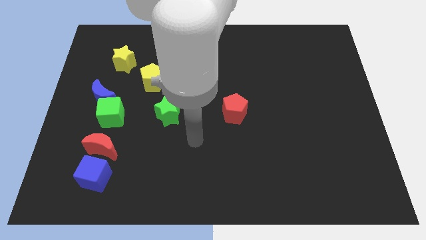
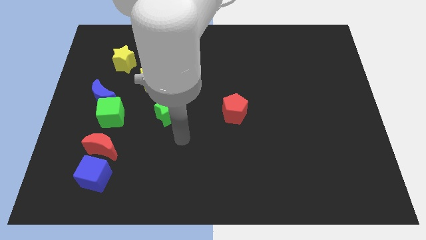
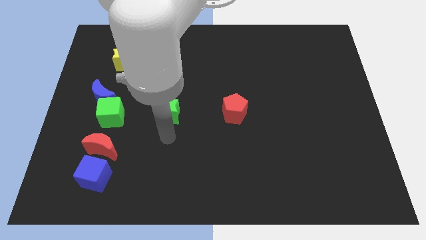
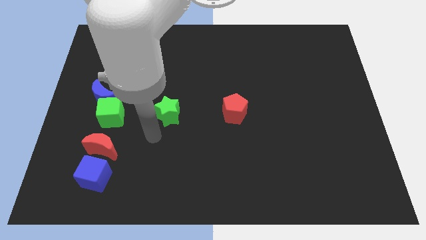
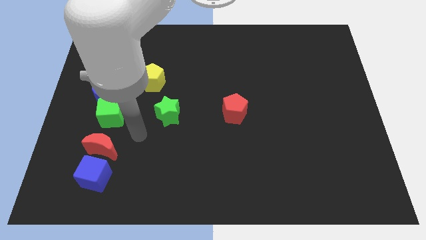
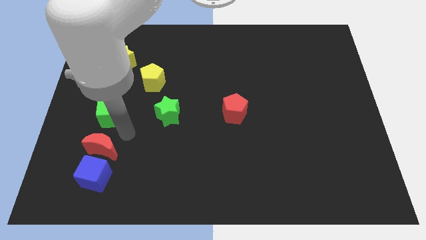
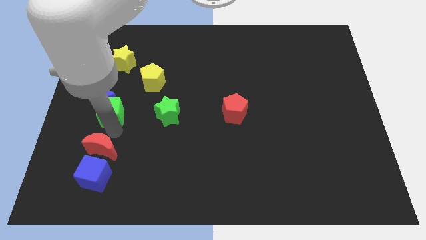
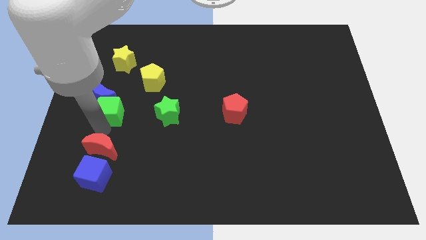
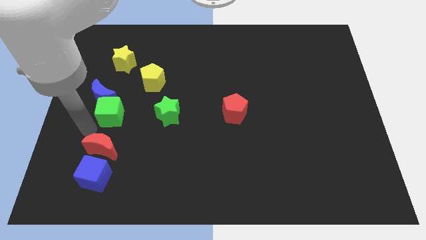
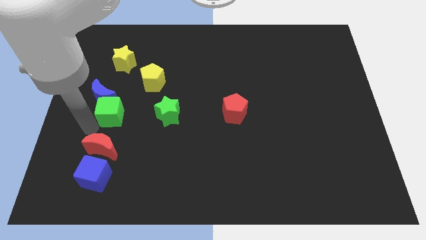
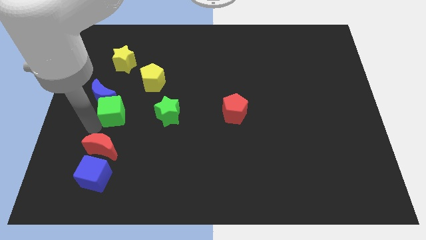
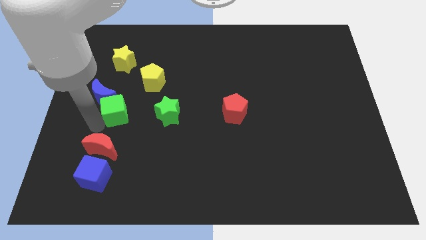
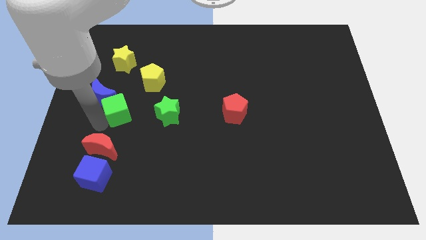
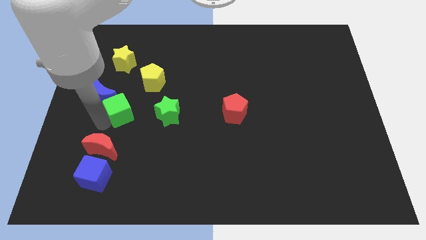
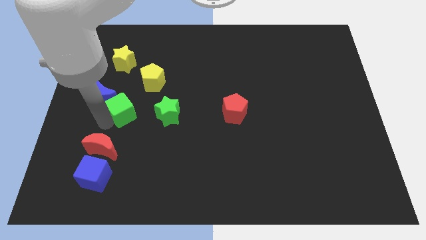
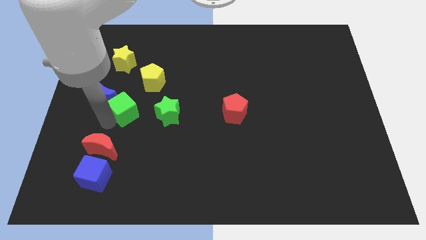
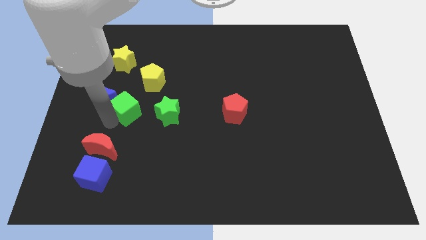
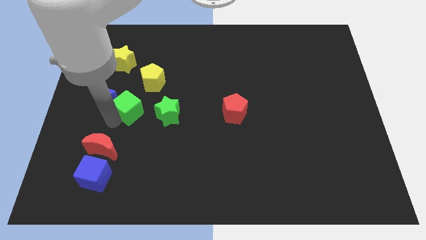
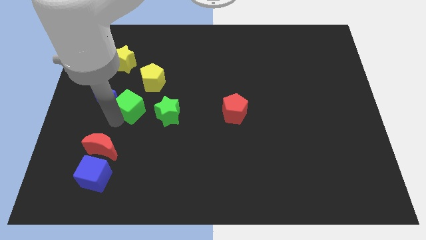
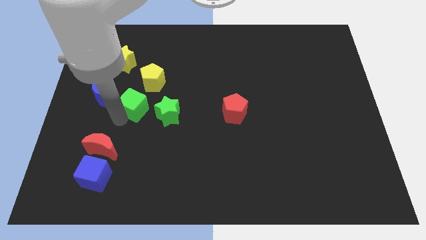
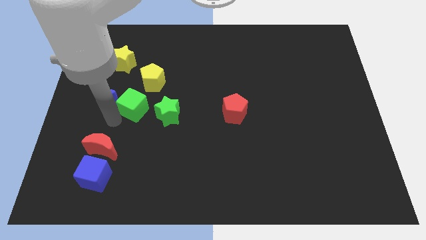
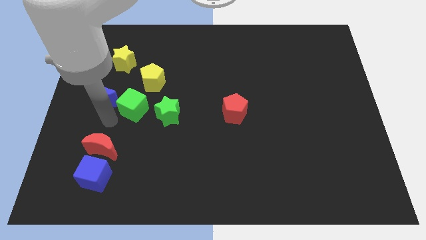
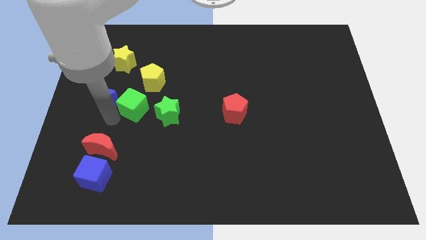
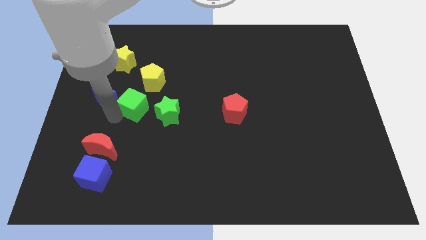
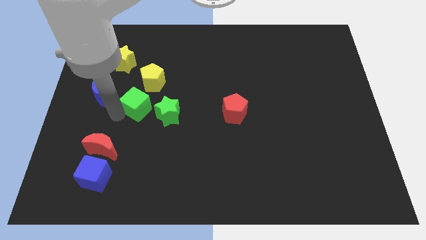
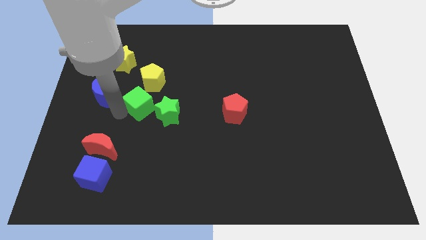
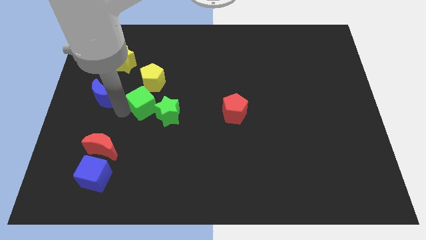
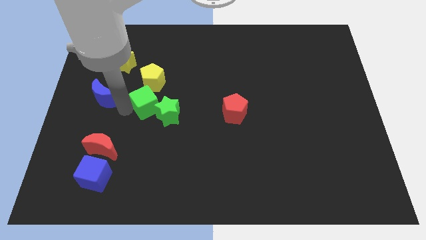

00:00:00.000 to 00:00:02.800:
push the green cube slightly up and right

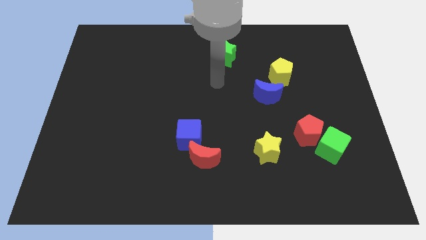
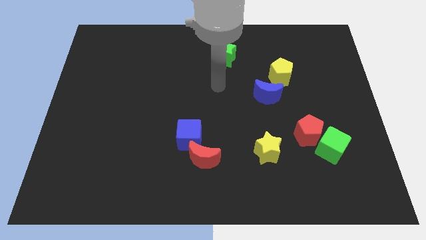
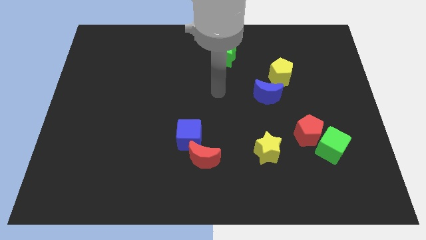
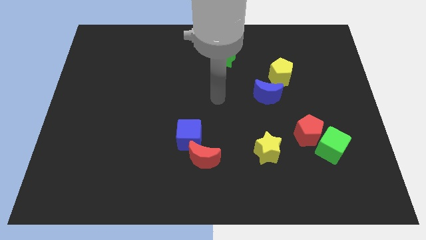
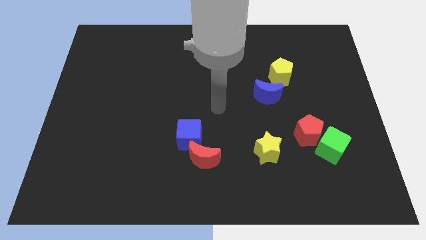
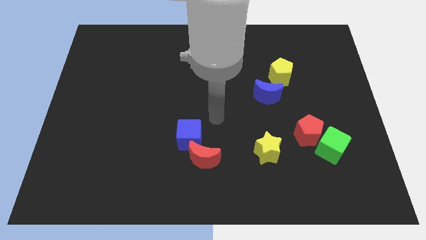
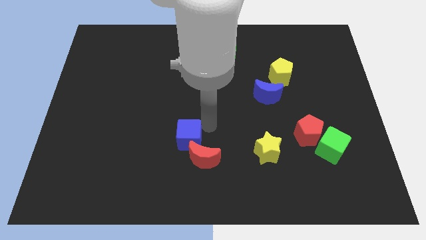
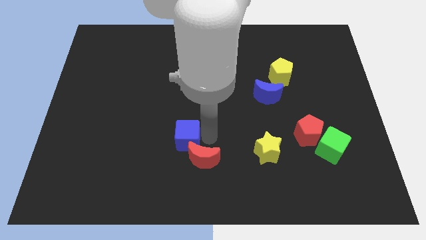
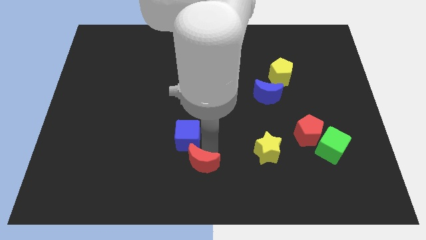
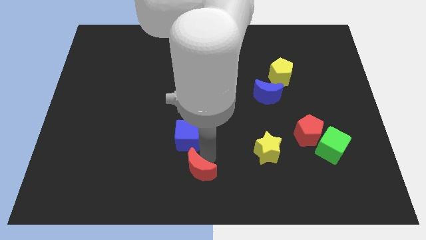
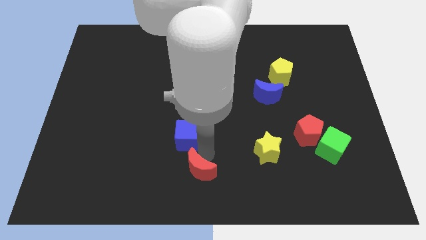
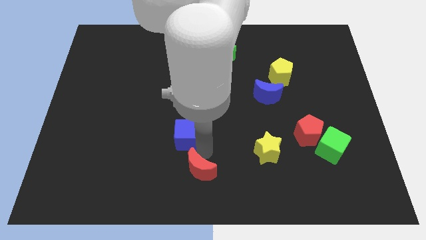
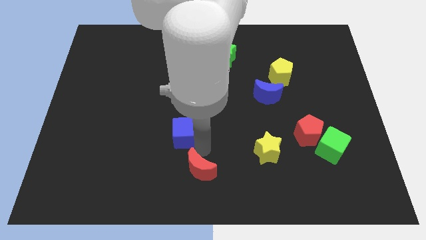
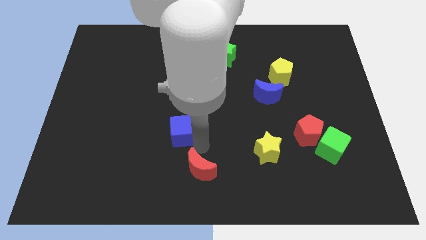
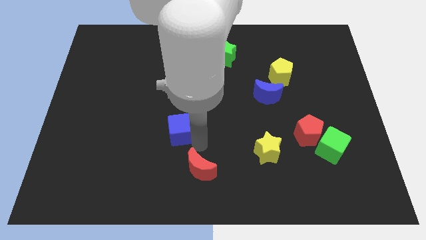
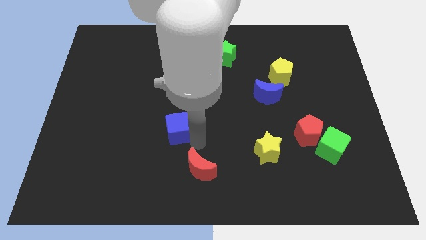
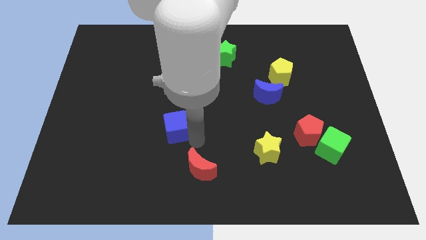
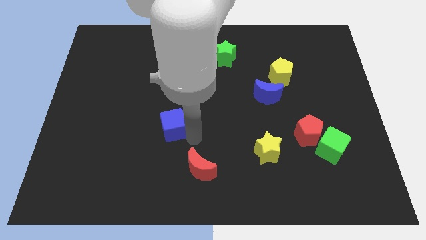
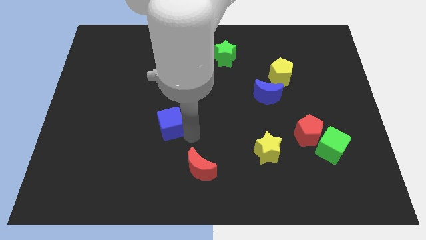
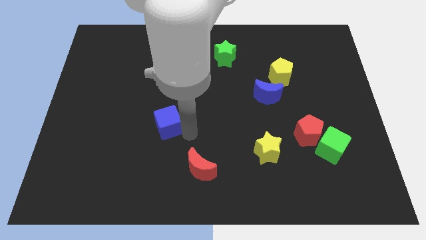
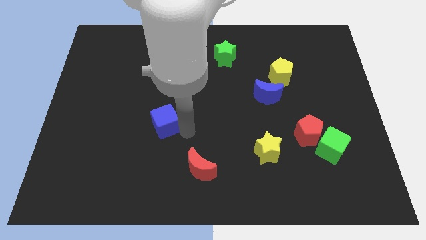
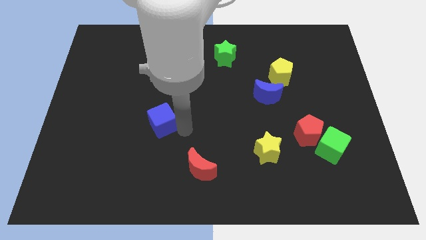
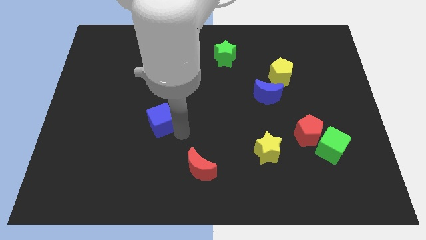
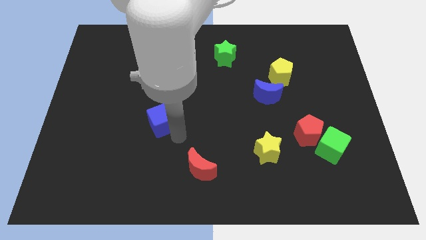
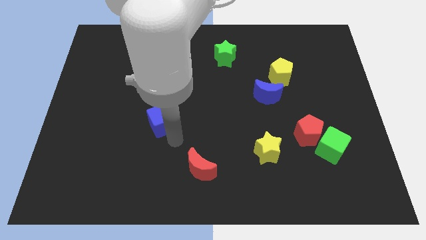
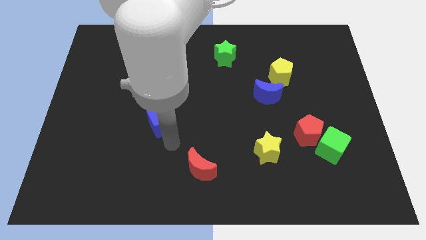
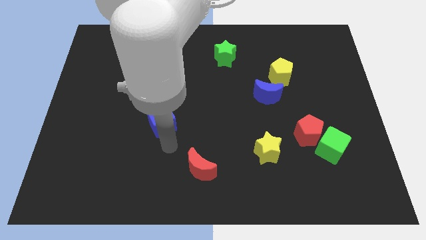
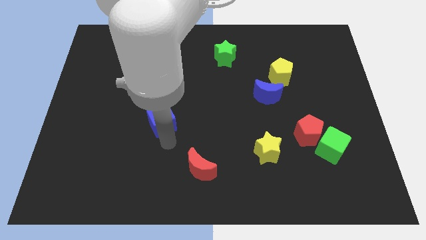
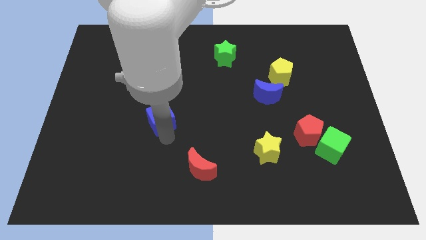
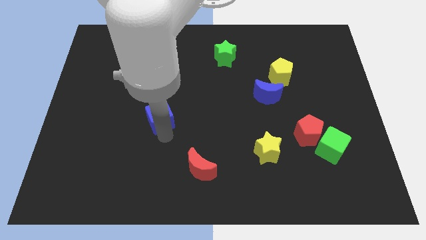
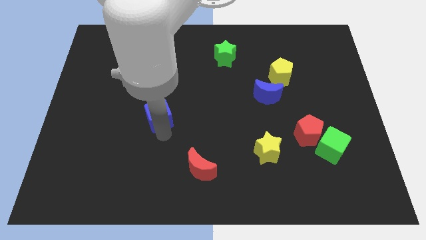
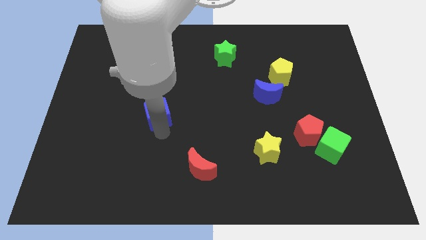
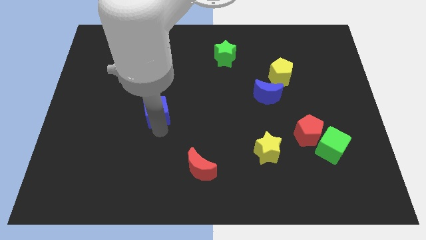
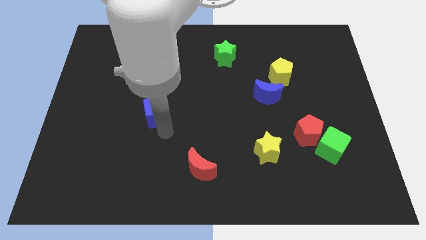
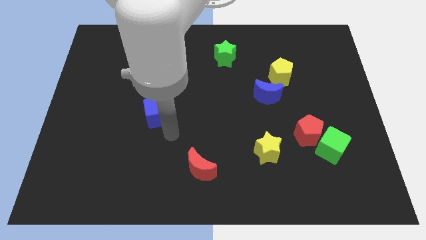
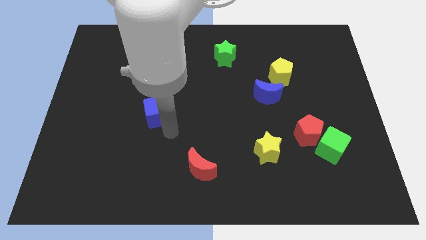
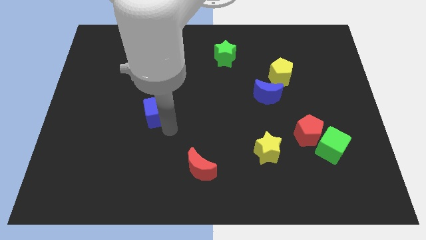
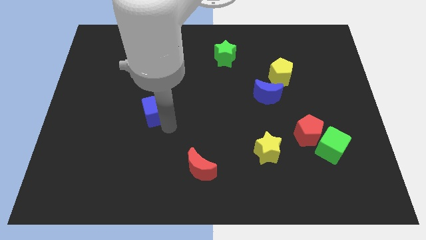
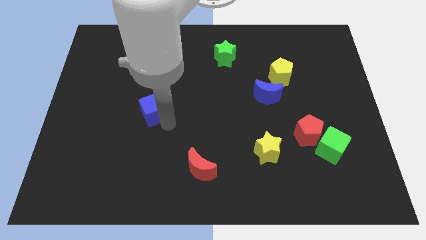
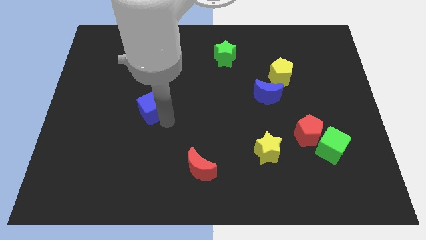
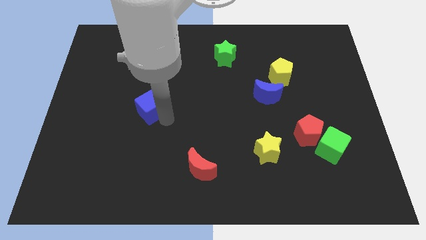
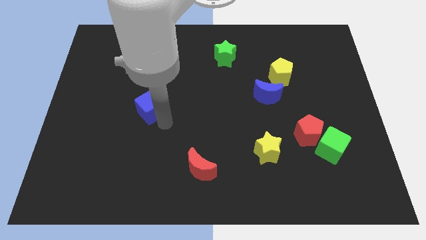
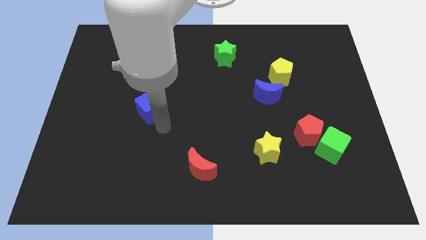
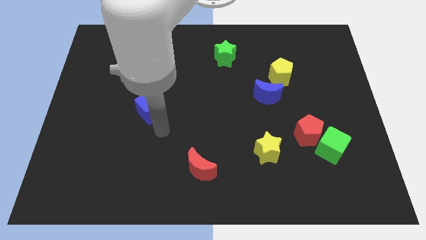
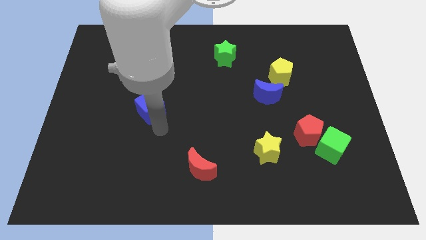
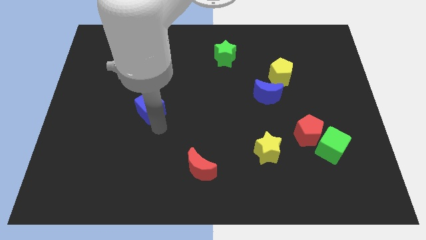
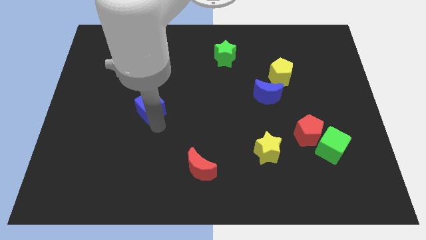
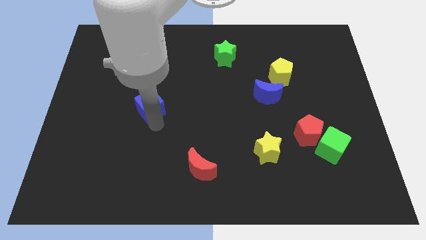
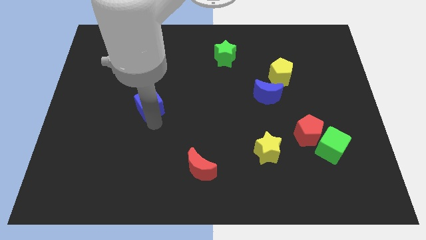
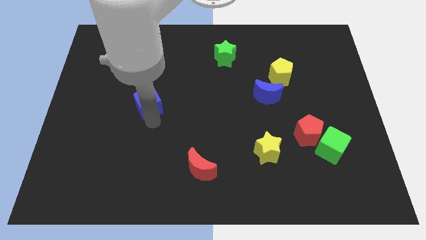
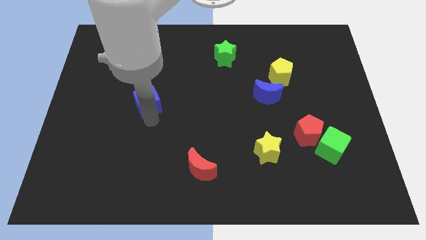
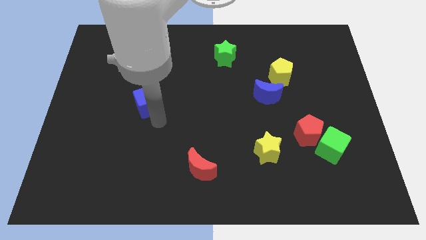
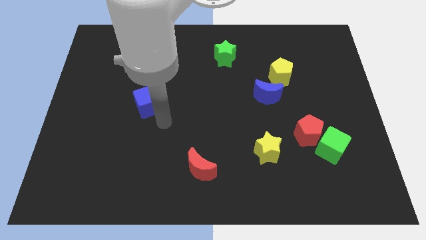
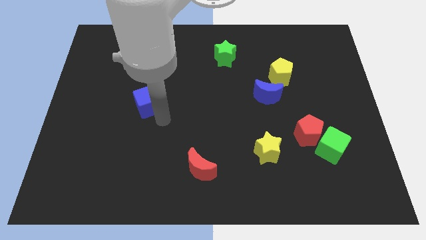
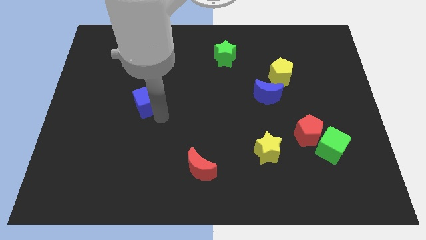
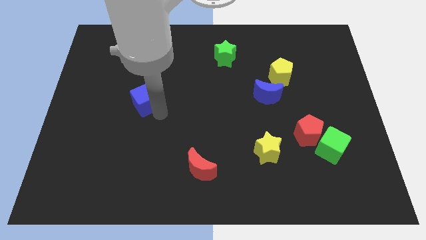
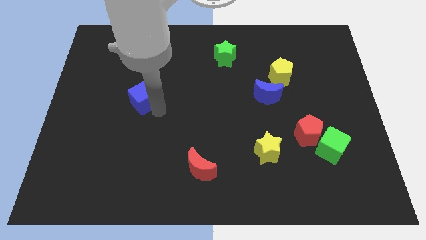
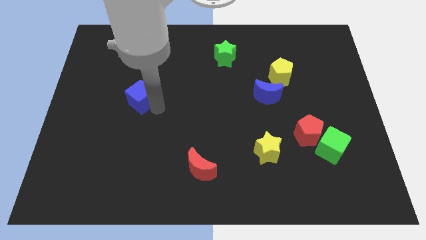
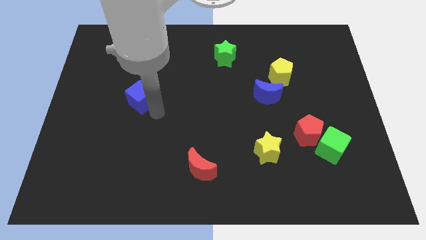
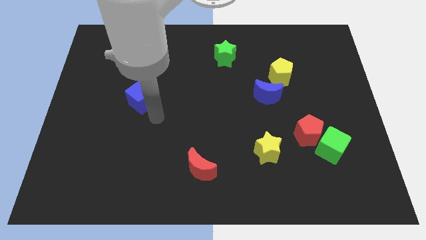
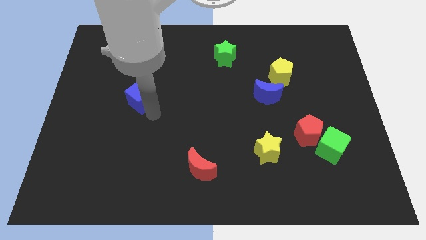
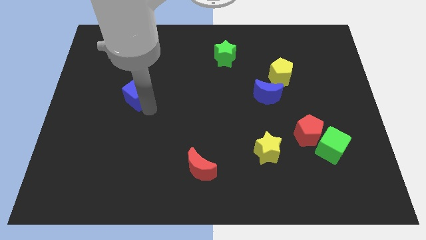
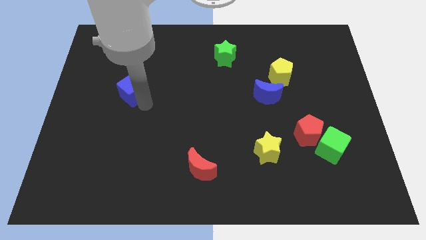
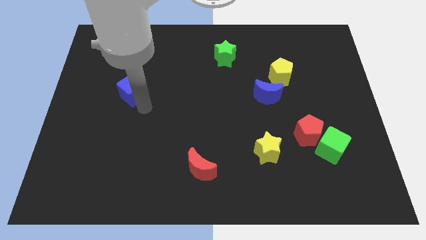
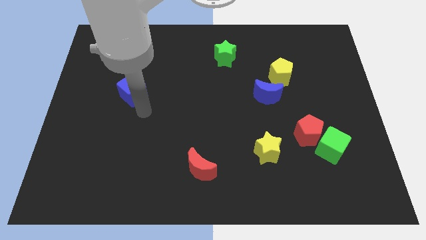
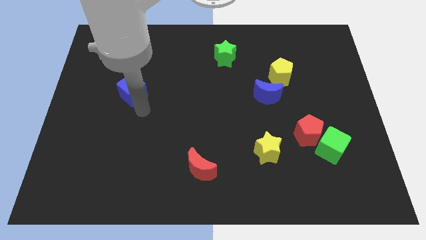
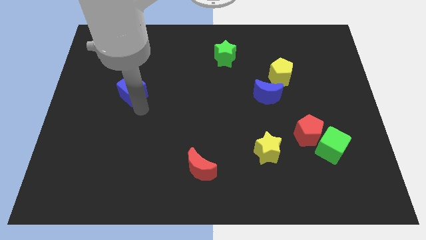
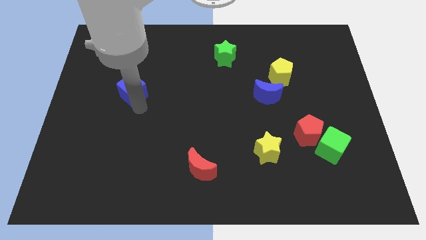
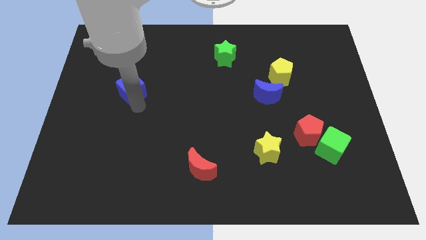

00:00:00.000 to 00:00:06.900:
push the blue cube diagonally upwards and to the left
